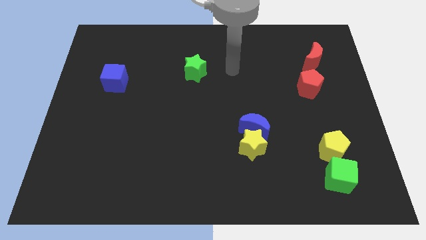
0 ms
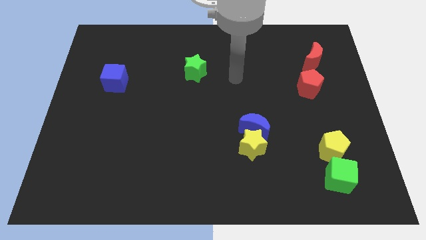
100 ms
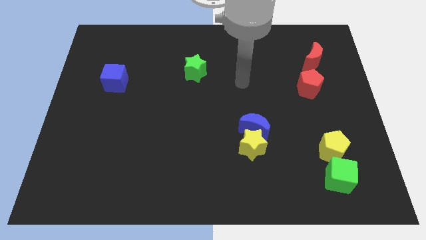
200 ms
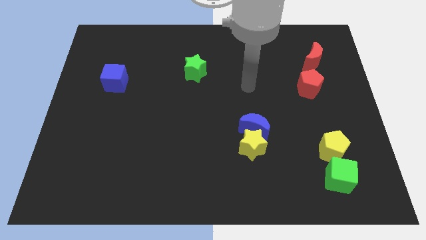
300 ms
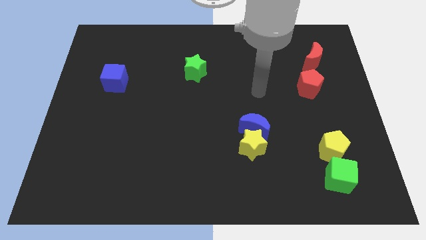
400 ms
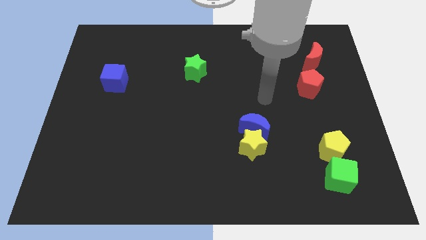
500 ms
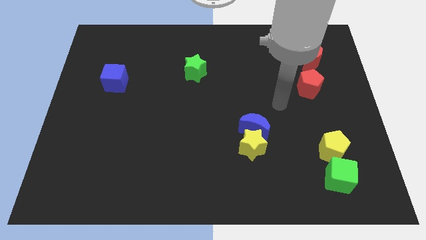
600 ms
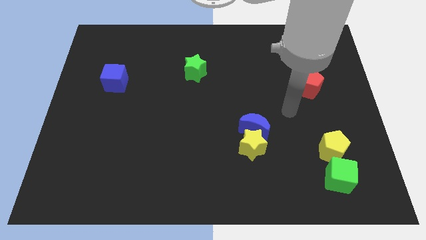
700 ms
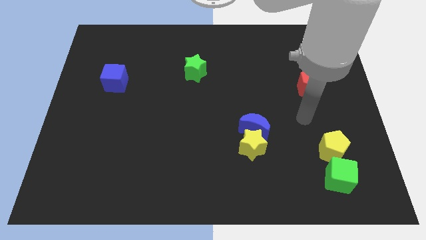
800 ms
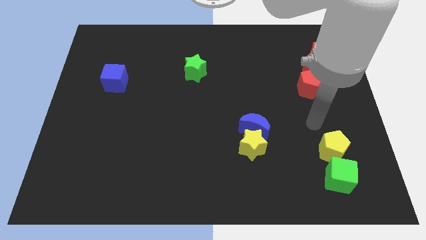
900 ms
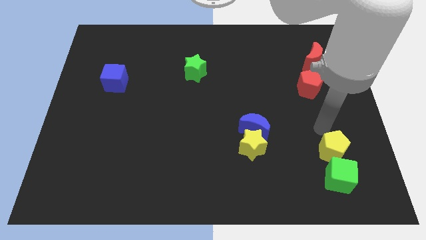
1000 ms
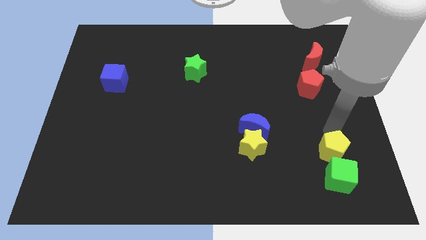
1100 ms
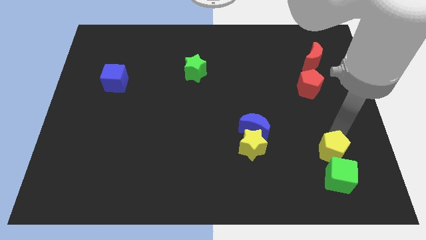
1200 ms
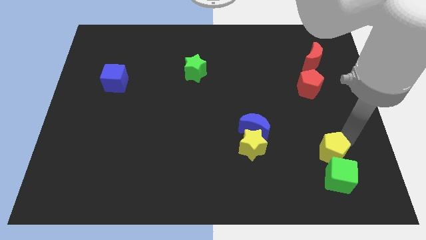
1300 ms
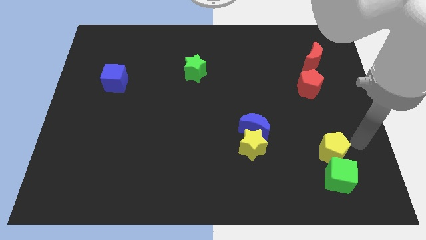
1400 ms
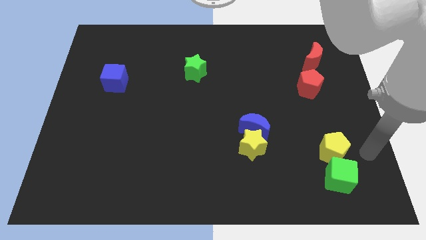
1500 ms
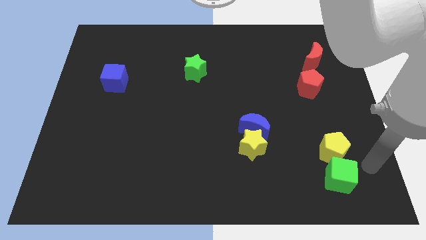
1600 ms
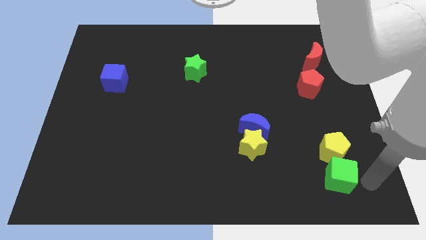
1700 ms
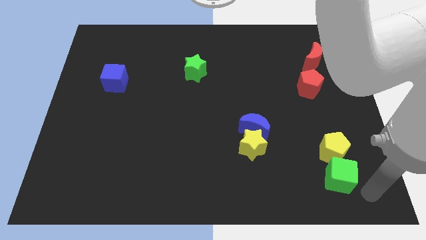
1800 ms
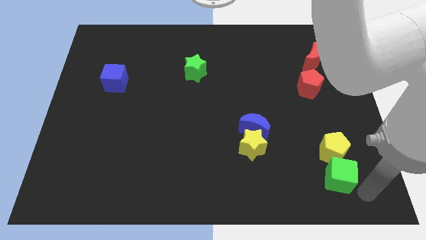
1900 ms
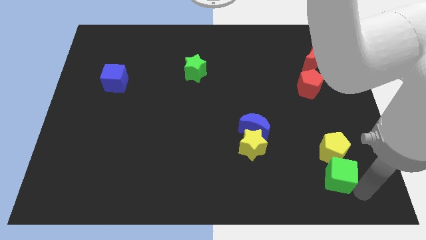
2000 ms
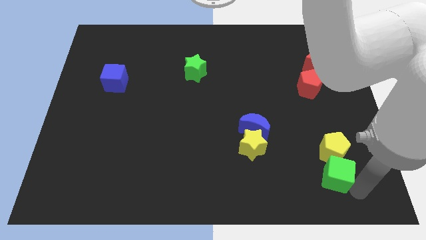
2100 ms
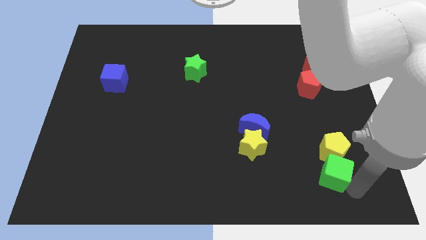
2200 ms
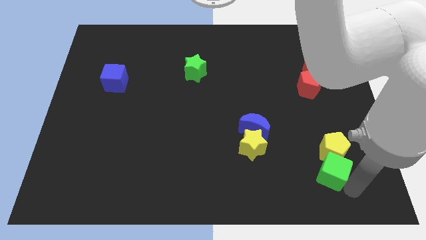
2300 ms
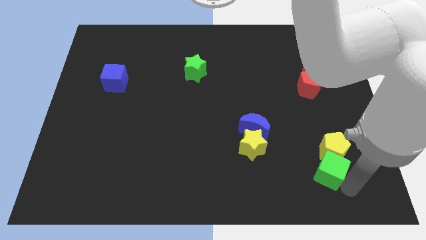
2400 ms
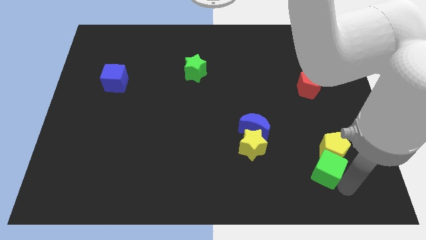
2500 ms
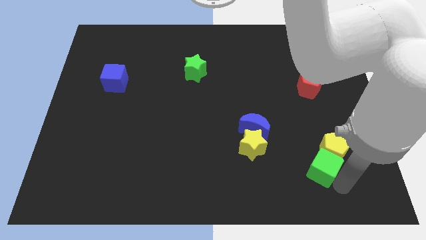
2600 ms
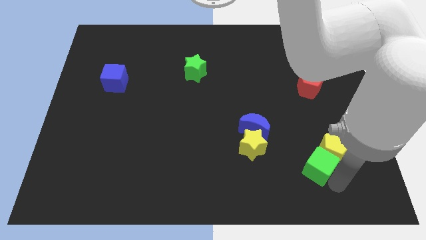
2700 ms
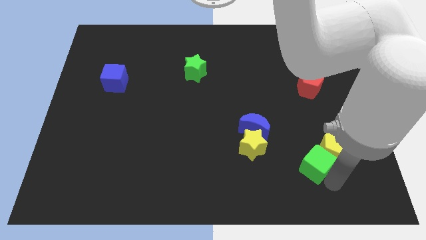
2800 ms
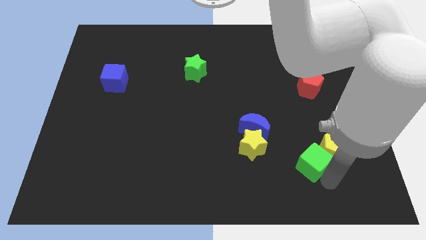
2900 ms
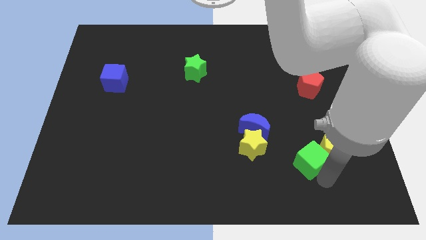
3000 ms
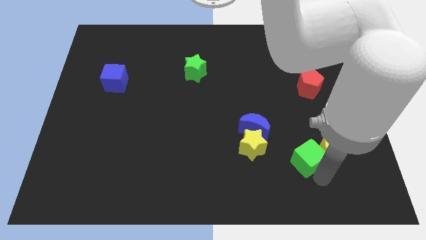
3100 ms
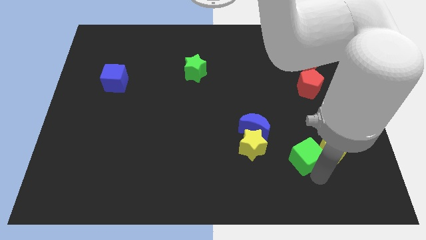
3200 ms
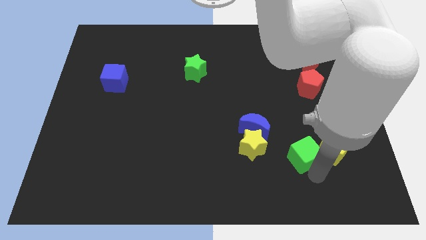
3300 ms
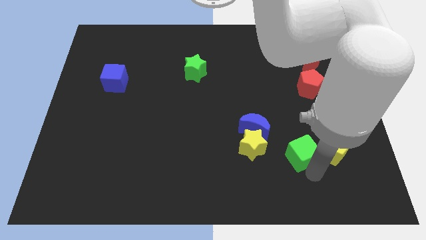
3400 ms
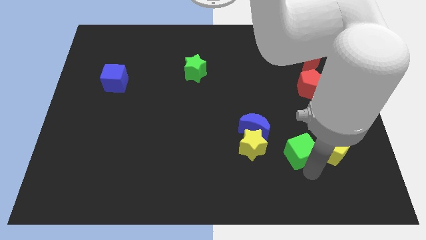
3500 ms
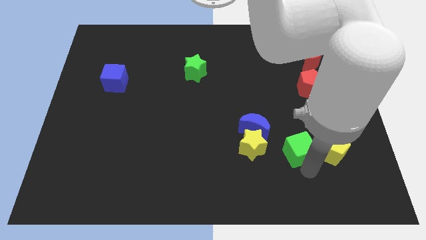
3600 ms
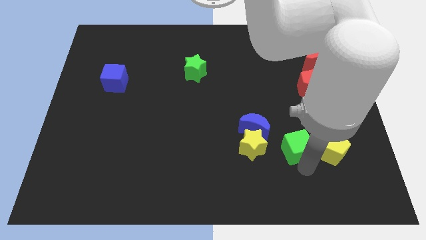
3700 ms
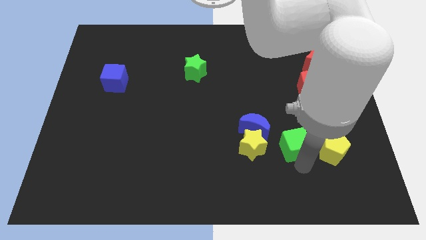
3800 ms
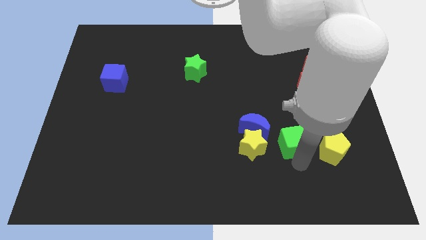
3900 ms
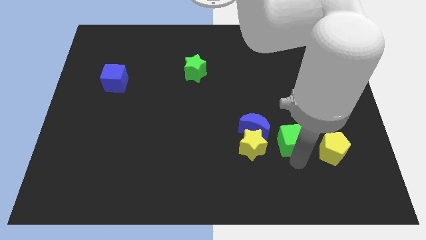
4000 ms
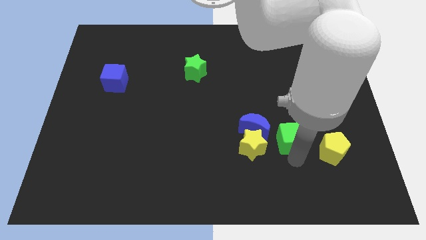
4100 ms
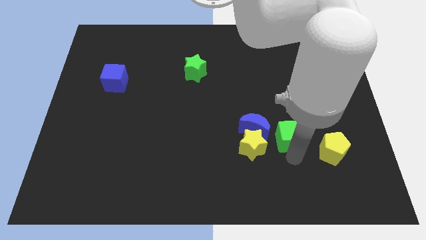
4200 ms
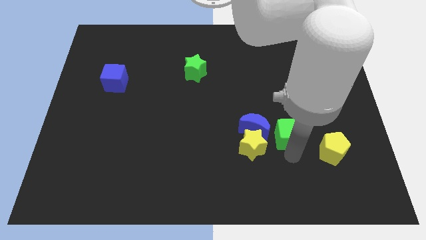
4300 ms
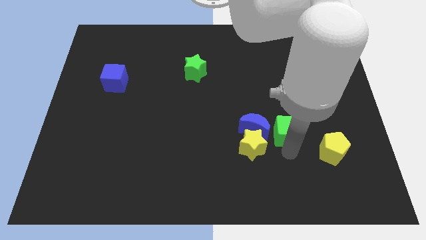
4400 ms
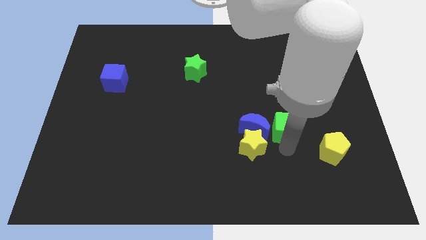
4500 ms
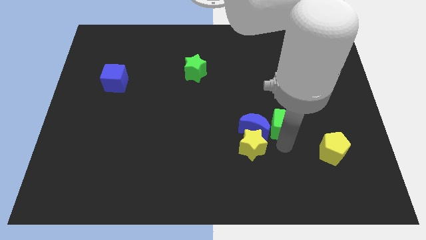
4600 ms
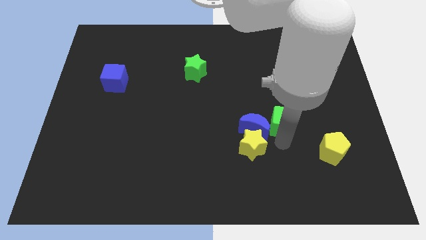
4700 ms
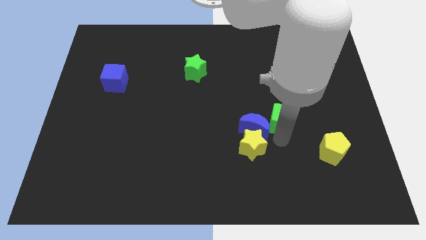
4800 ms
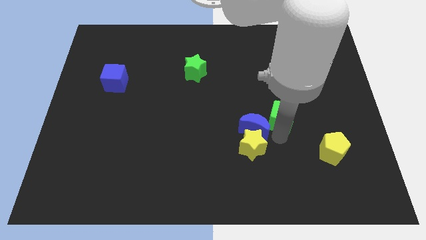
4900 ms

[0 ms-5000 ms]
put the green cube diagonally down and to the left of the red pentagon

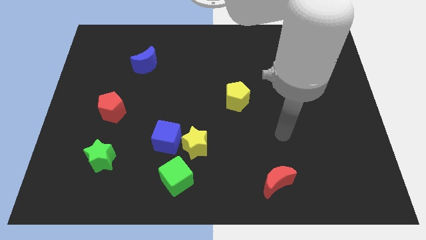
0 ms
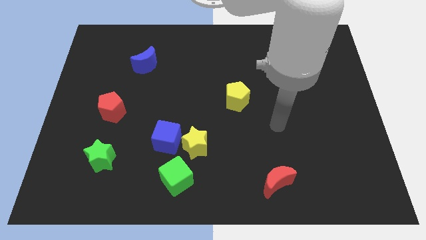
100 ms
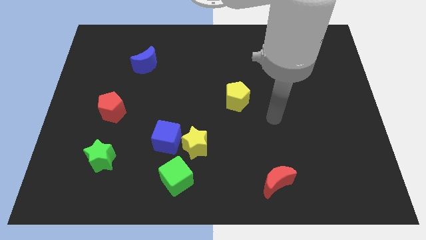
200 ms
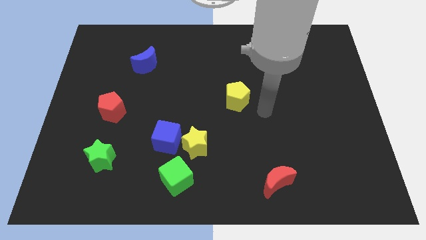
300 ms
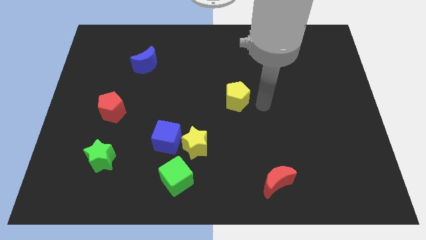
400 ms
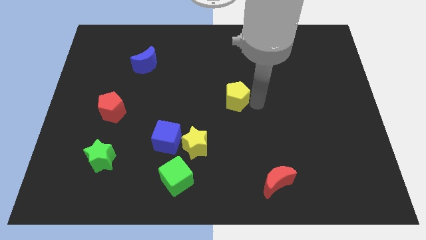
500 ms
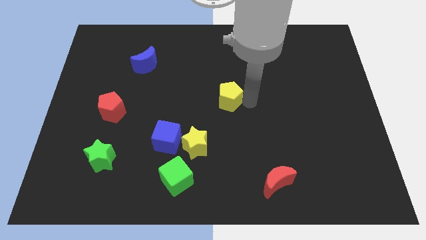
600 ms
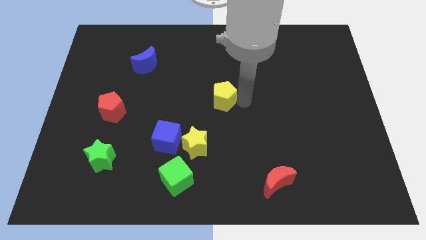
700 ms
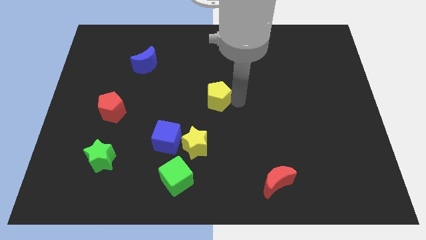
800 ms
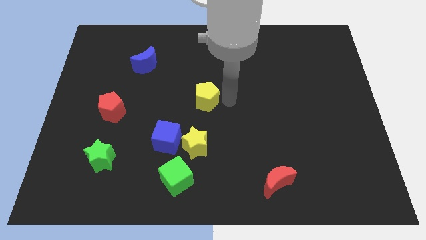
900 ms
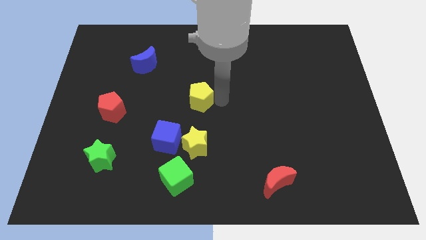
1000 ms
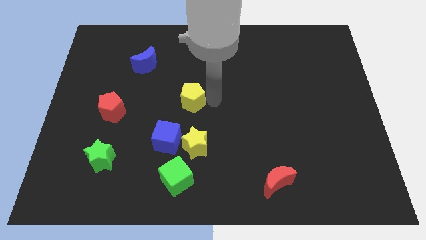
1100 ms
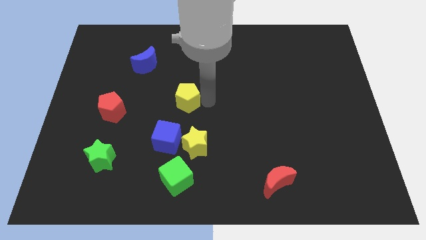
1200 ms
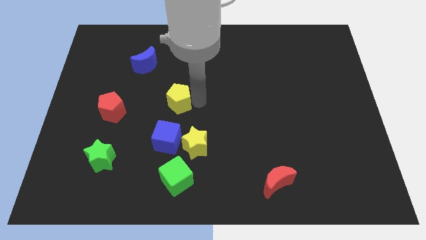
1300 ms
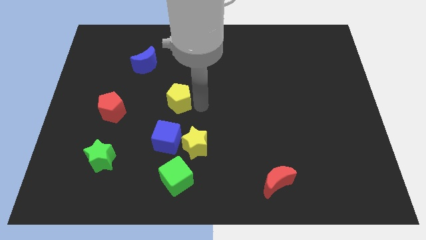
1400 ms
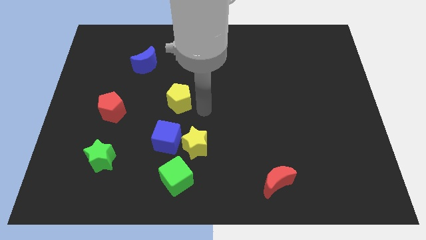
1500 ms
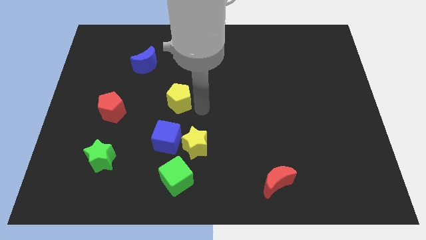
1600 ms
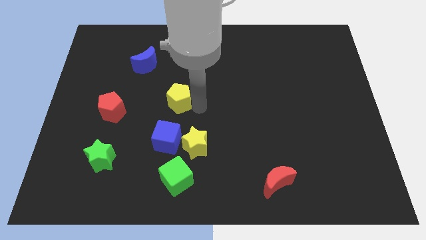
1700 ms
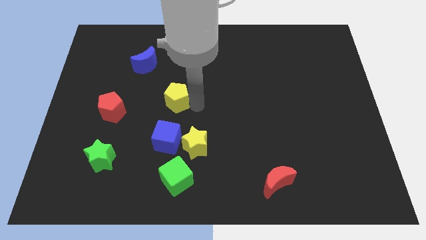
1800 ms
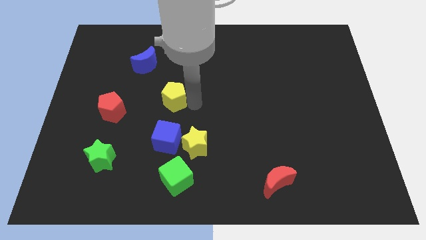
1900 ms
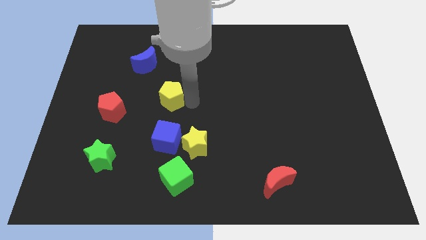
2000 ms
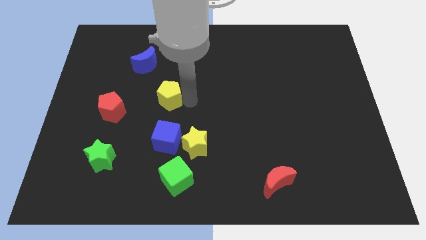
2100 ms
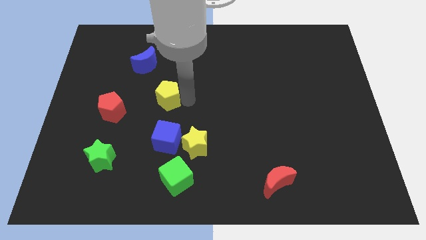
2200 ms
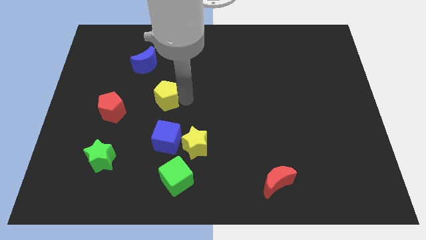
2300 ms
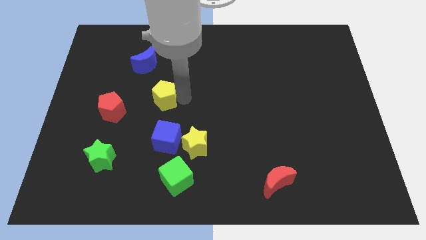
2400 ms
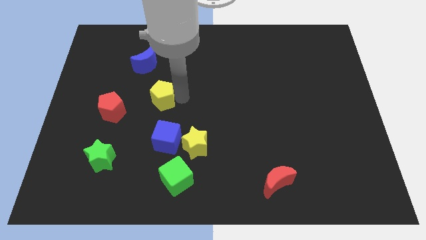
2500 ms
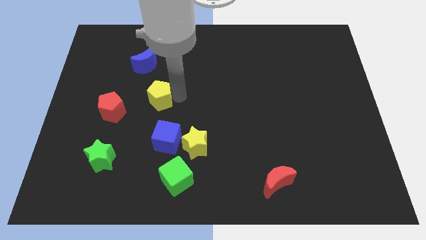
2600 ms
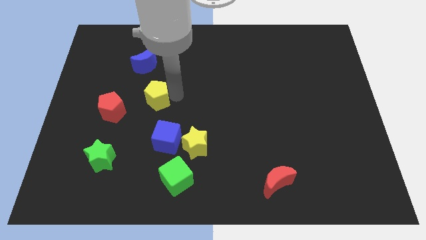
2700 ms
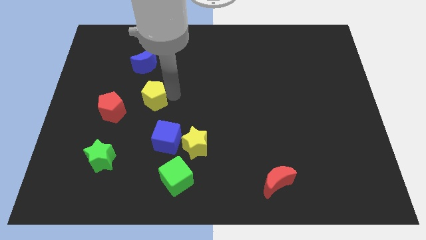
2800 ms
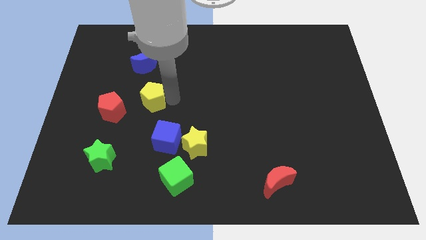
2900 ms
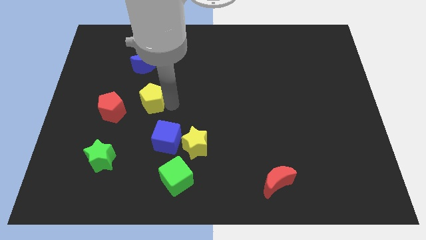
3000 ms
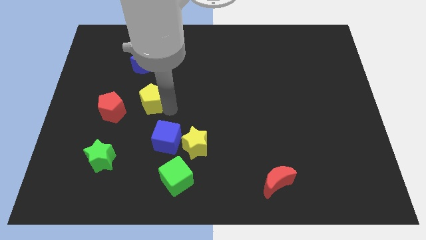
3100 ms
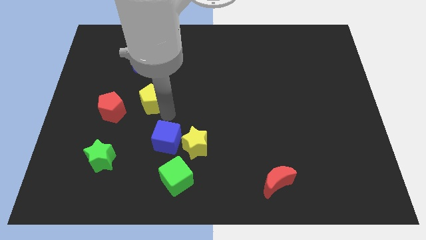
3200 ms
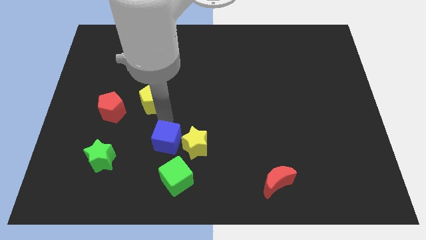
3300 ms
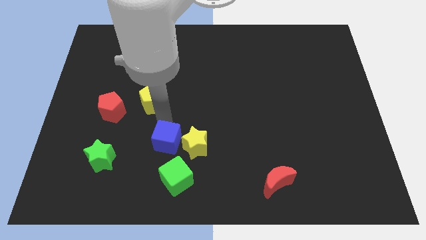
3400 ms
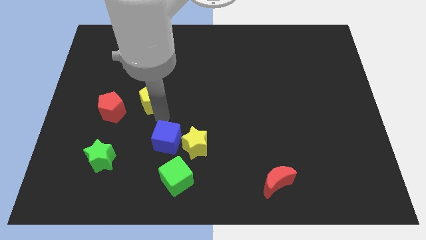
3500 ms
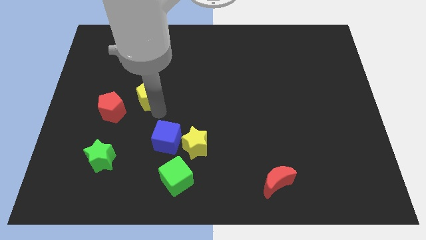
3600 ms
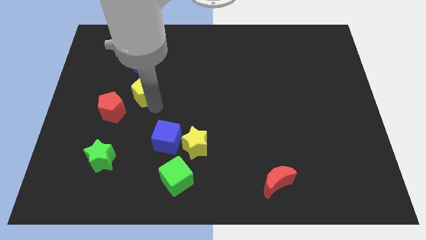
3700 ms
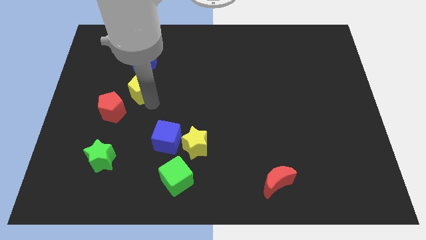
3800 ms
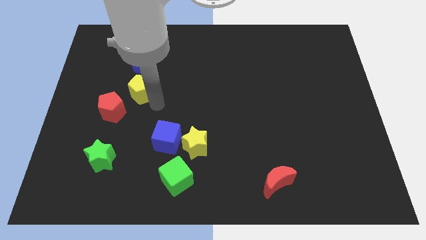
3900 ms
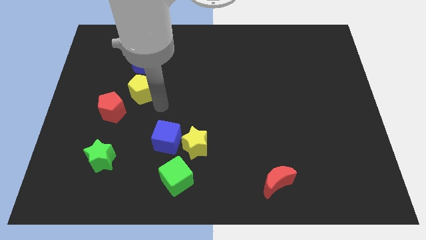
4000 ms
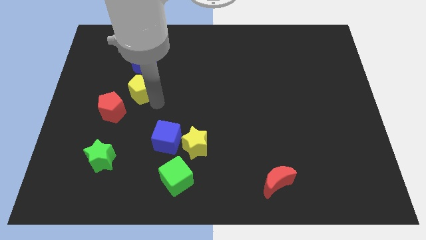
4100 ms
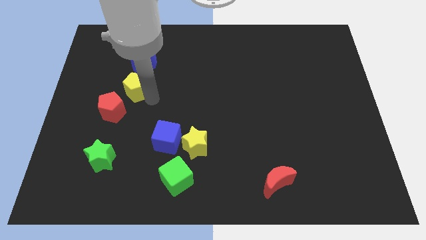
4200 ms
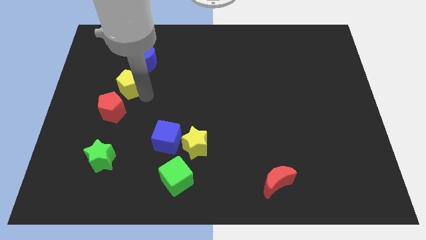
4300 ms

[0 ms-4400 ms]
move the yellow pentagon to the bottom left of the blue moon
